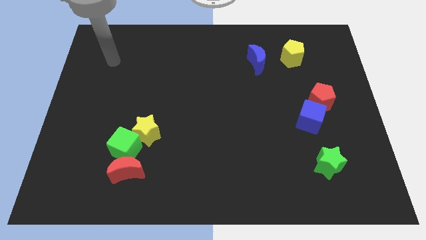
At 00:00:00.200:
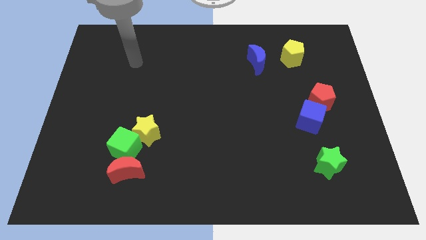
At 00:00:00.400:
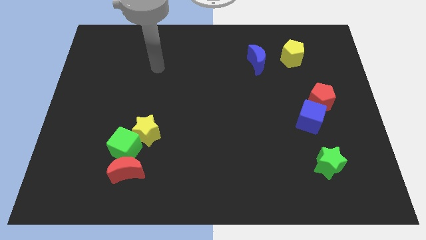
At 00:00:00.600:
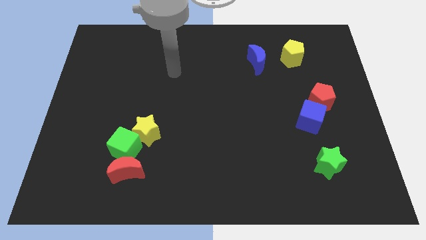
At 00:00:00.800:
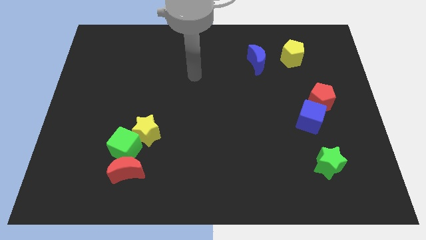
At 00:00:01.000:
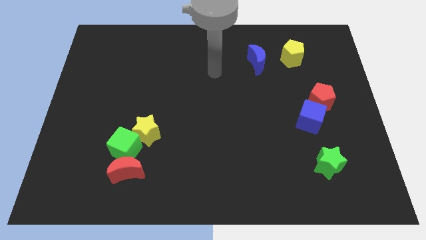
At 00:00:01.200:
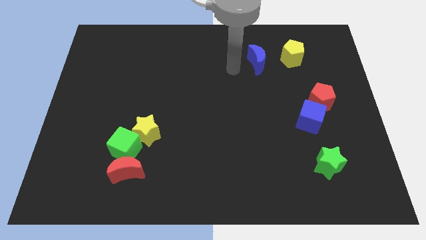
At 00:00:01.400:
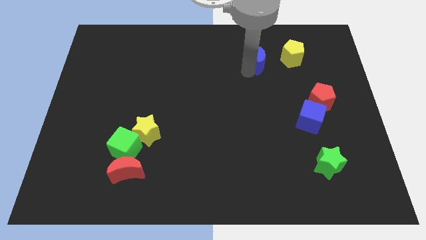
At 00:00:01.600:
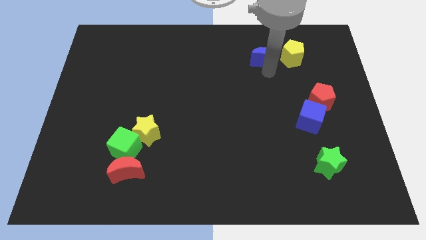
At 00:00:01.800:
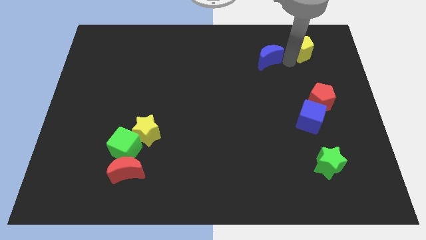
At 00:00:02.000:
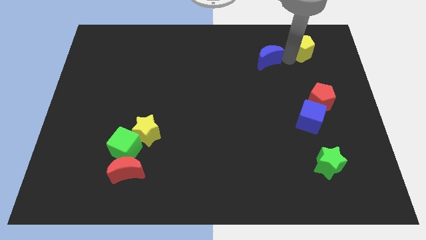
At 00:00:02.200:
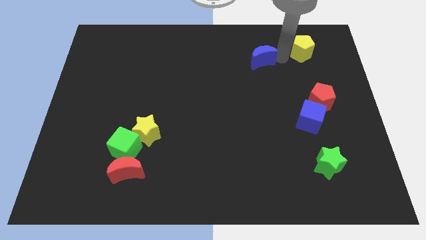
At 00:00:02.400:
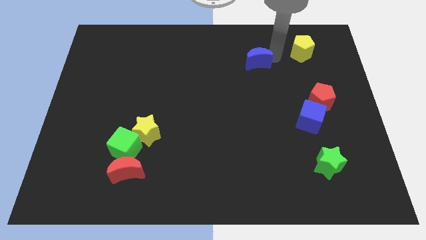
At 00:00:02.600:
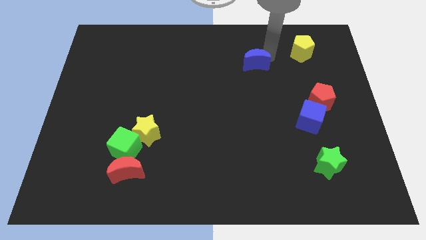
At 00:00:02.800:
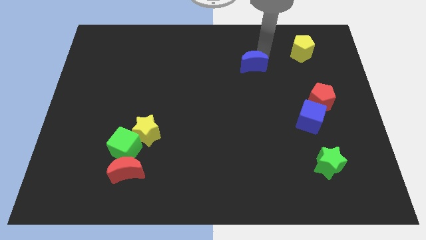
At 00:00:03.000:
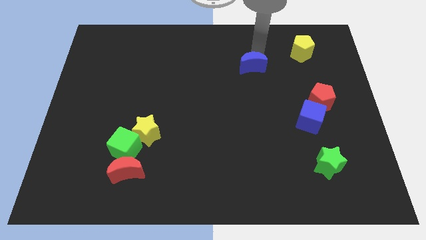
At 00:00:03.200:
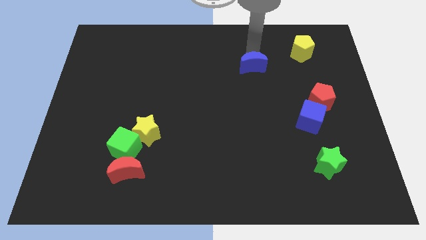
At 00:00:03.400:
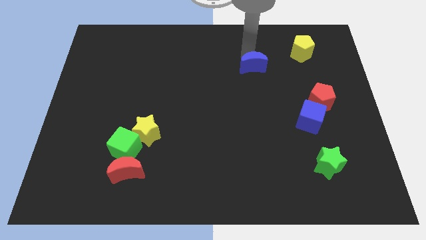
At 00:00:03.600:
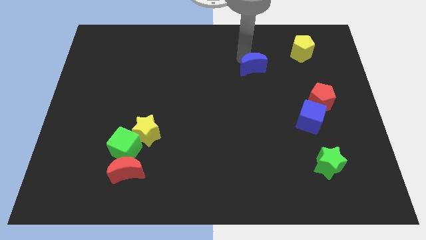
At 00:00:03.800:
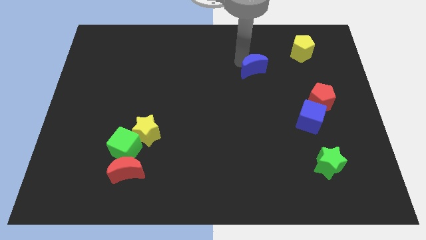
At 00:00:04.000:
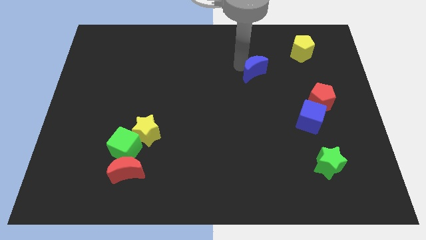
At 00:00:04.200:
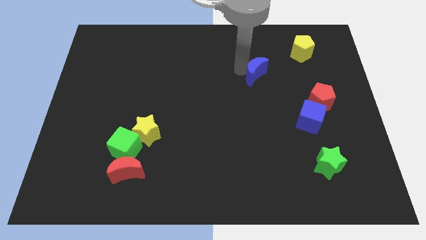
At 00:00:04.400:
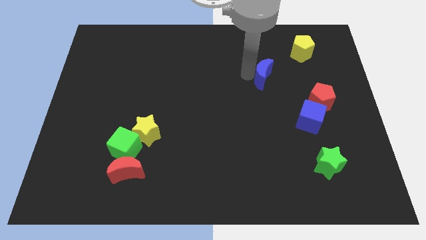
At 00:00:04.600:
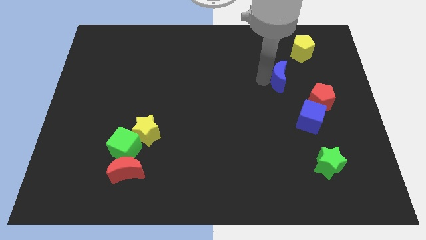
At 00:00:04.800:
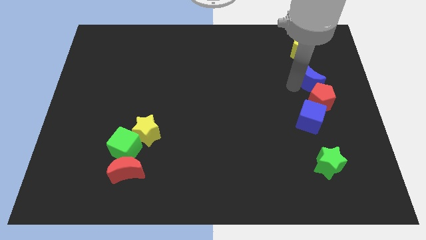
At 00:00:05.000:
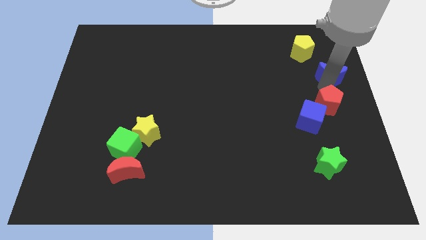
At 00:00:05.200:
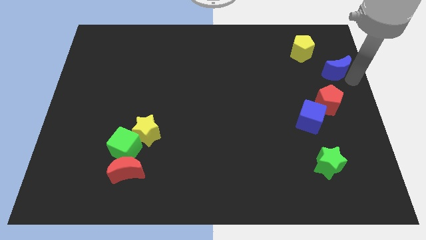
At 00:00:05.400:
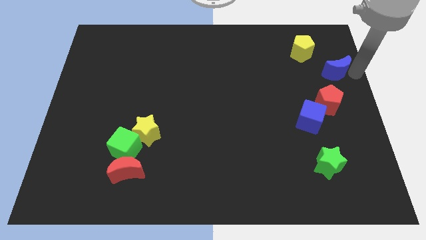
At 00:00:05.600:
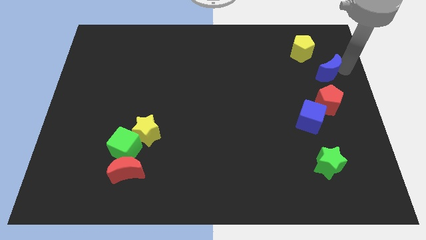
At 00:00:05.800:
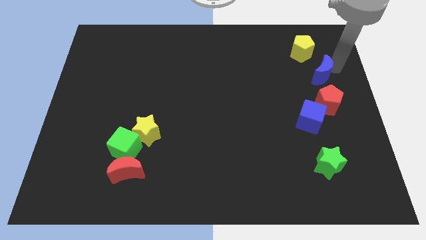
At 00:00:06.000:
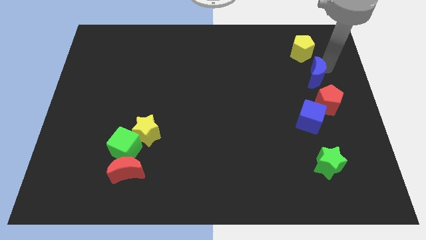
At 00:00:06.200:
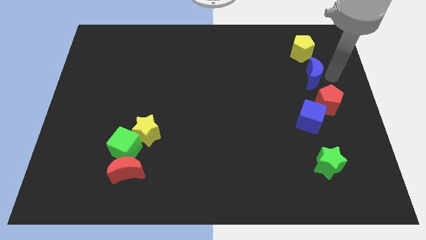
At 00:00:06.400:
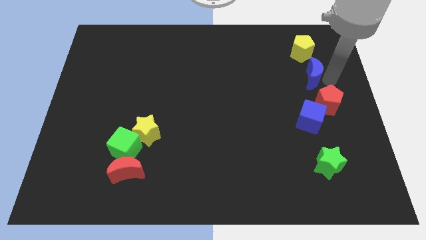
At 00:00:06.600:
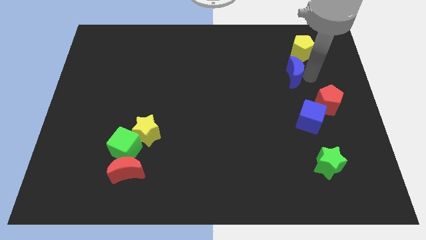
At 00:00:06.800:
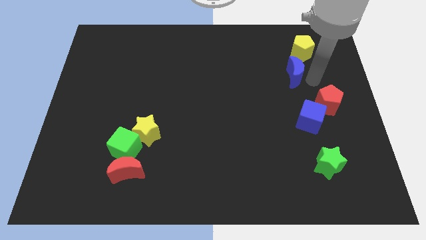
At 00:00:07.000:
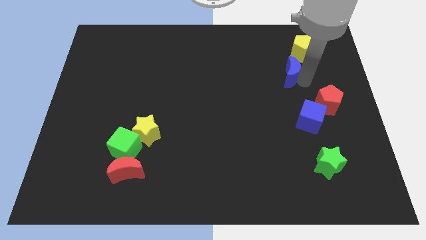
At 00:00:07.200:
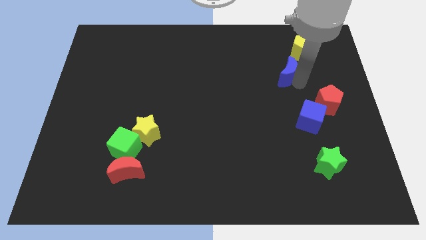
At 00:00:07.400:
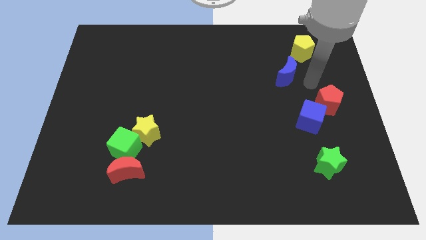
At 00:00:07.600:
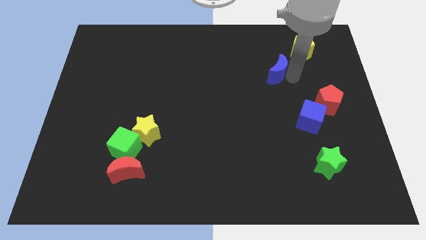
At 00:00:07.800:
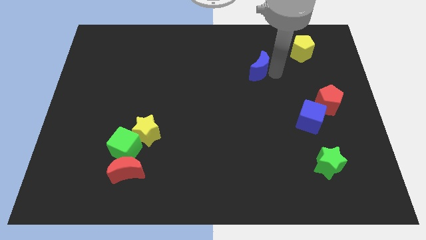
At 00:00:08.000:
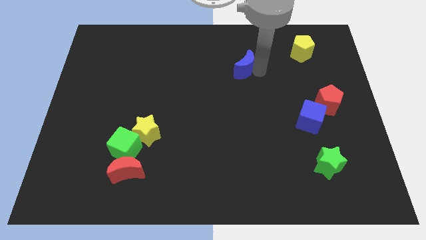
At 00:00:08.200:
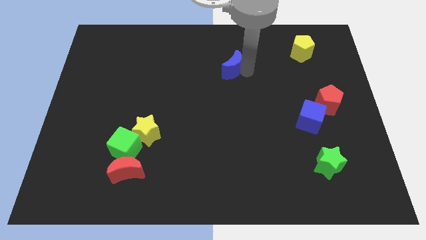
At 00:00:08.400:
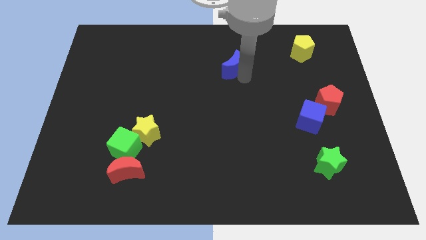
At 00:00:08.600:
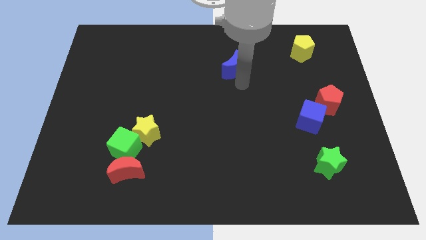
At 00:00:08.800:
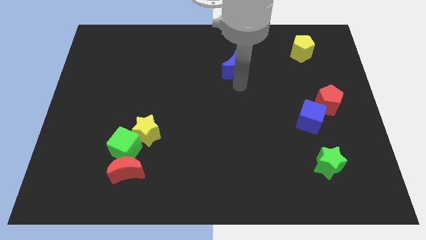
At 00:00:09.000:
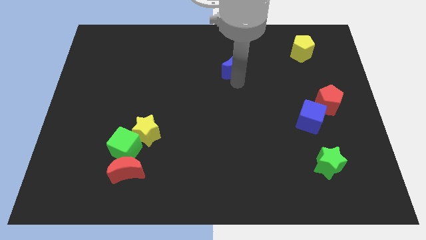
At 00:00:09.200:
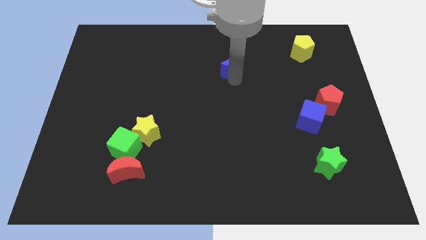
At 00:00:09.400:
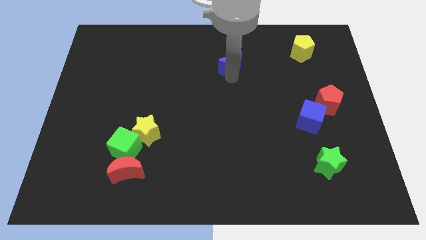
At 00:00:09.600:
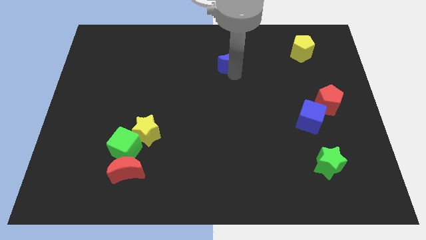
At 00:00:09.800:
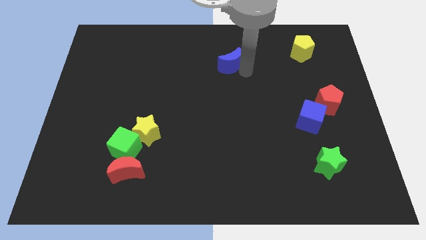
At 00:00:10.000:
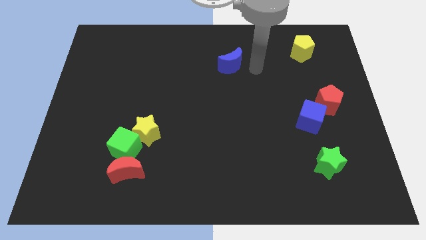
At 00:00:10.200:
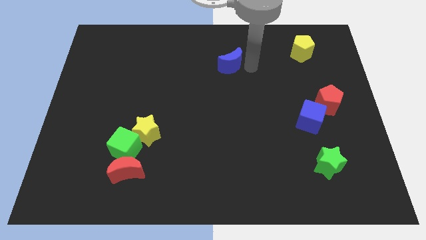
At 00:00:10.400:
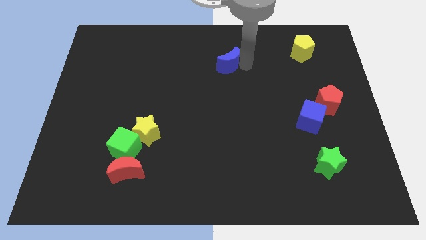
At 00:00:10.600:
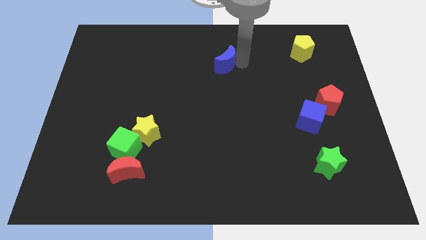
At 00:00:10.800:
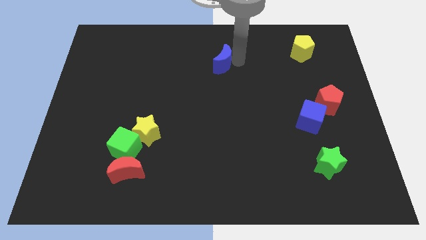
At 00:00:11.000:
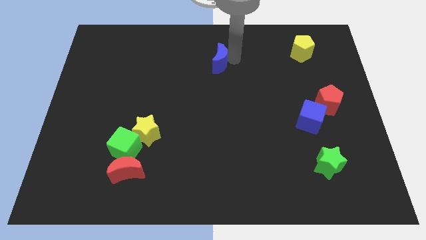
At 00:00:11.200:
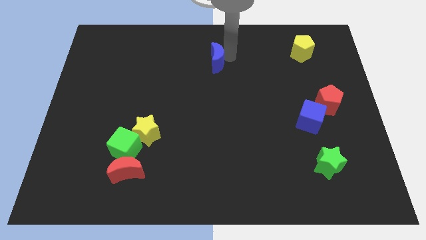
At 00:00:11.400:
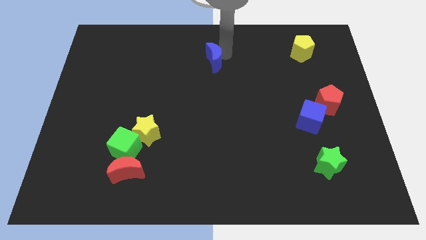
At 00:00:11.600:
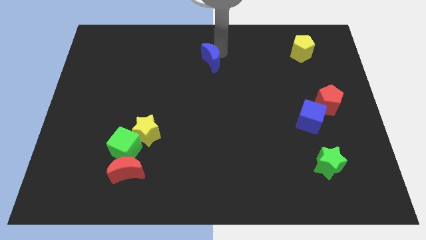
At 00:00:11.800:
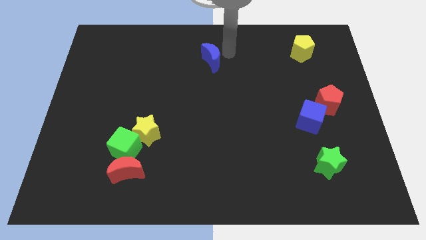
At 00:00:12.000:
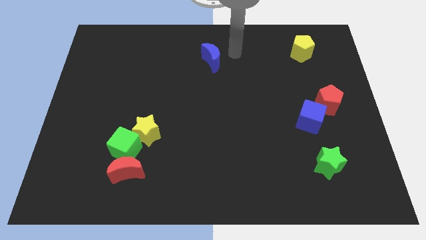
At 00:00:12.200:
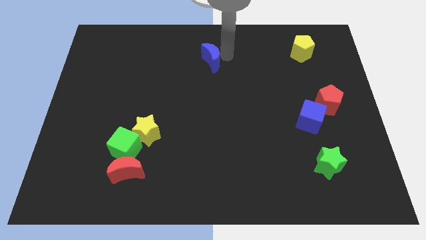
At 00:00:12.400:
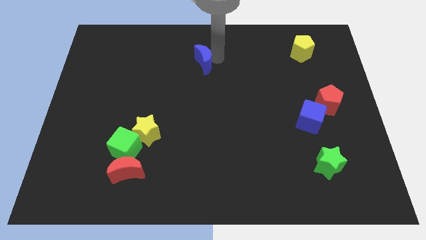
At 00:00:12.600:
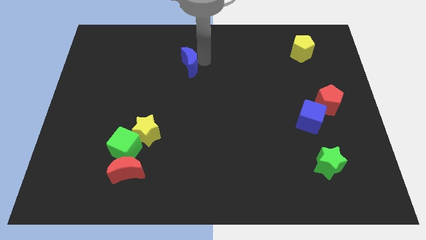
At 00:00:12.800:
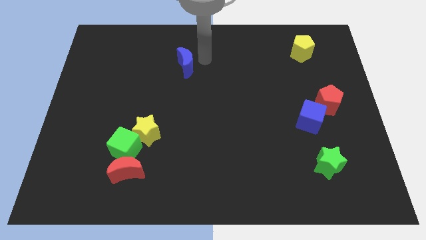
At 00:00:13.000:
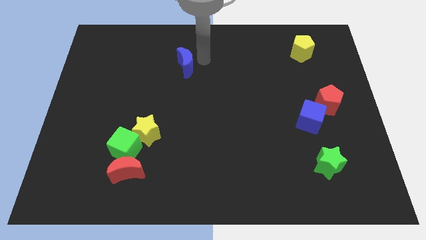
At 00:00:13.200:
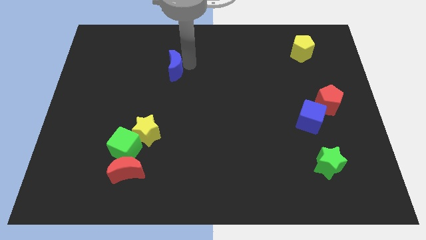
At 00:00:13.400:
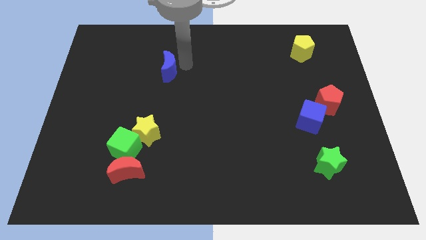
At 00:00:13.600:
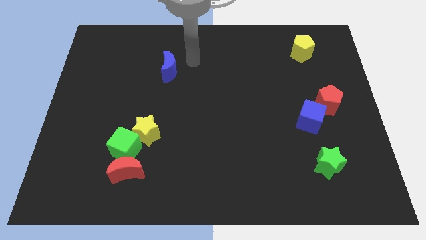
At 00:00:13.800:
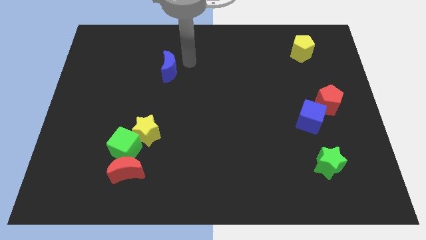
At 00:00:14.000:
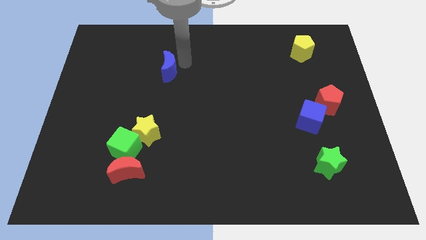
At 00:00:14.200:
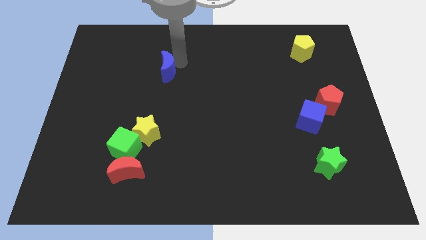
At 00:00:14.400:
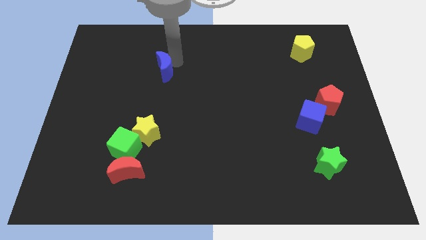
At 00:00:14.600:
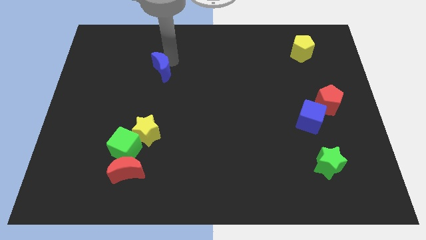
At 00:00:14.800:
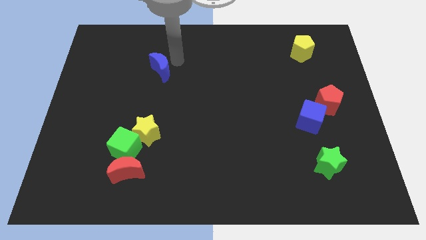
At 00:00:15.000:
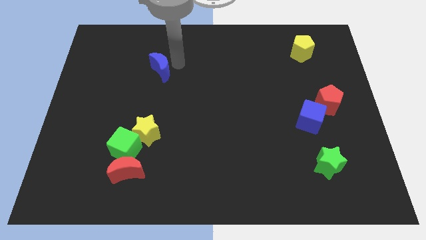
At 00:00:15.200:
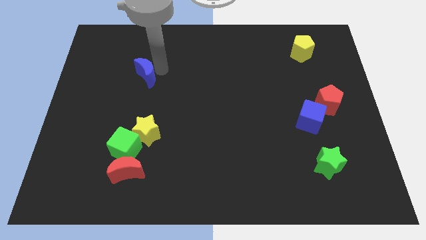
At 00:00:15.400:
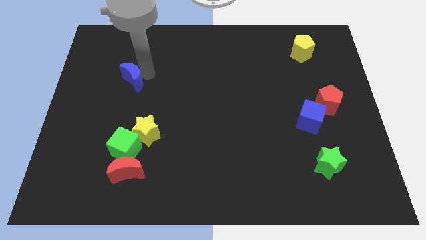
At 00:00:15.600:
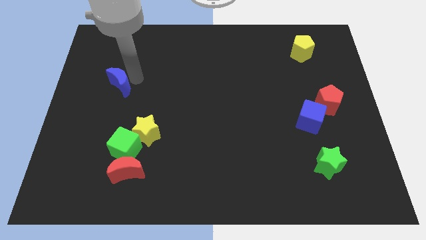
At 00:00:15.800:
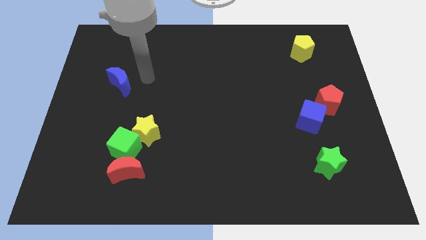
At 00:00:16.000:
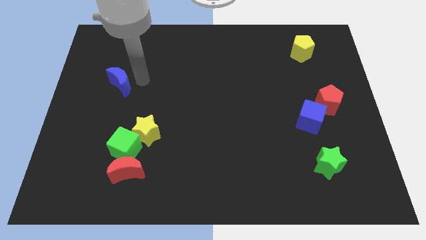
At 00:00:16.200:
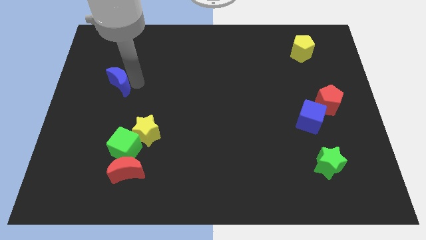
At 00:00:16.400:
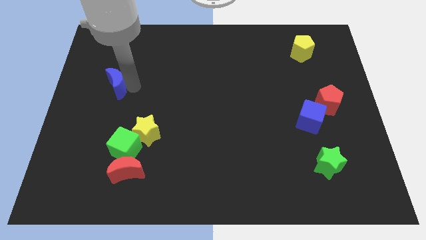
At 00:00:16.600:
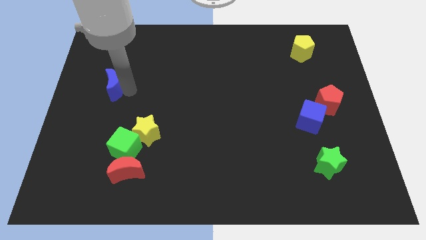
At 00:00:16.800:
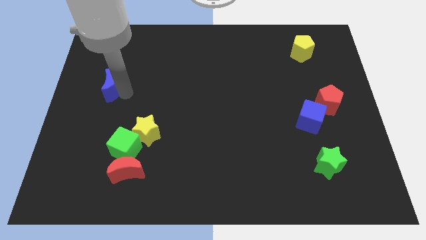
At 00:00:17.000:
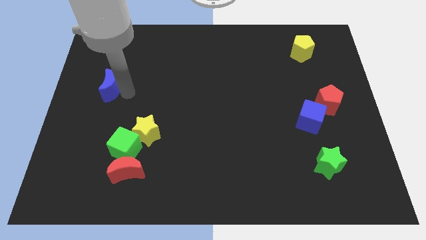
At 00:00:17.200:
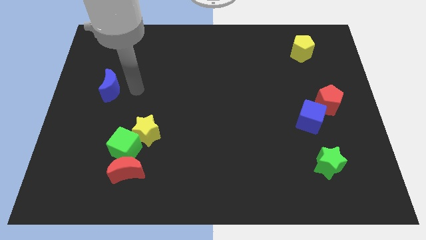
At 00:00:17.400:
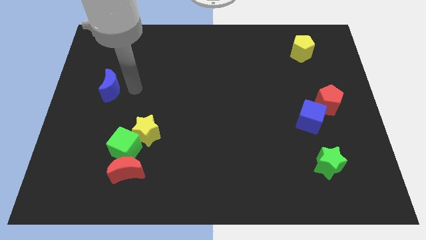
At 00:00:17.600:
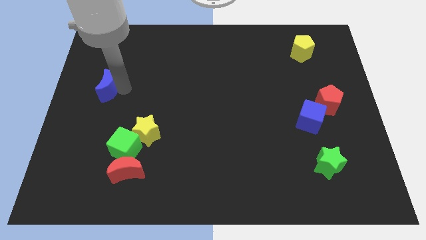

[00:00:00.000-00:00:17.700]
move the blue moon to the left side
